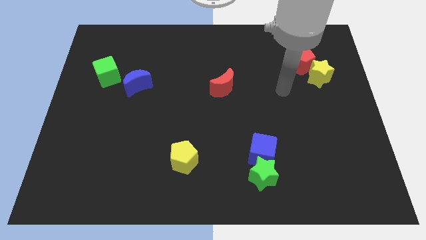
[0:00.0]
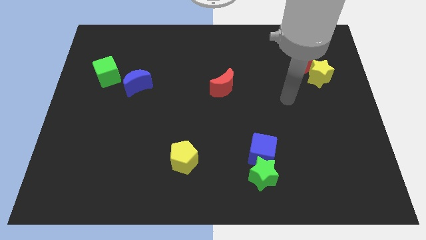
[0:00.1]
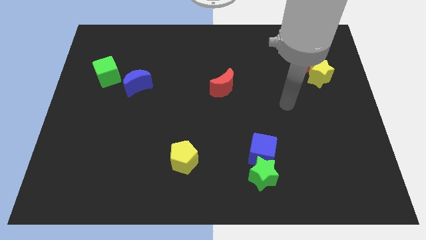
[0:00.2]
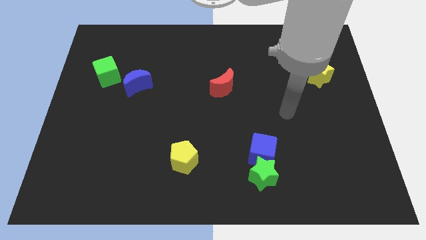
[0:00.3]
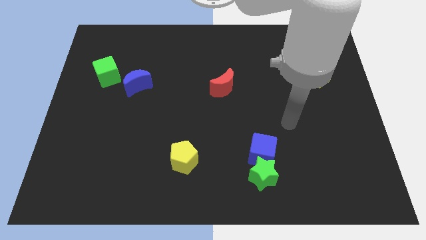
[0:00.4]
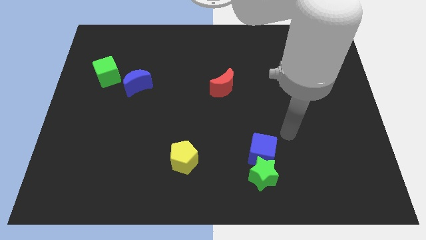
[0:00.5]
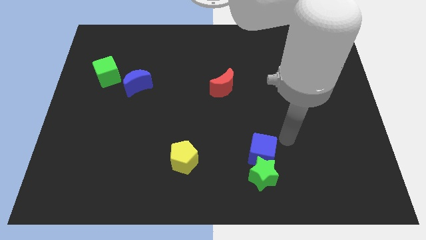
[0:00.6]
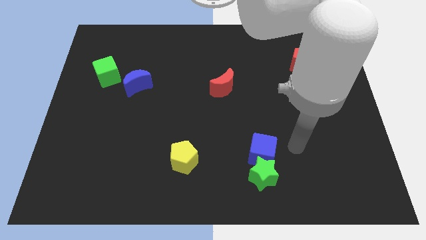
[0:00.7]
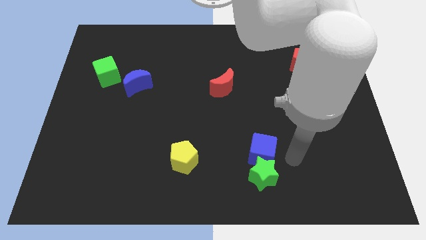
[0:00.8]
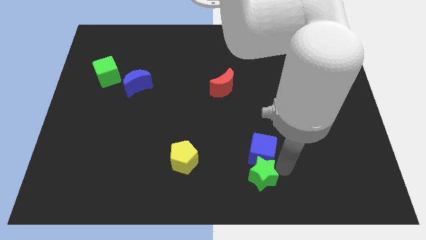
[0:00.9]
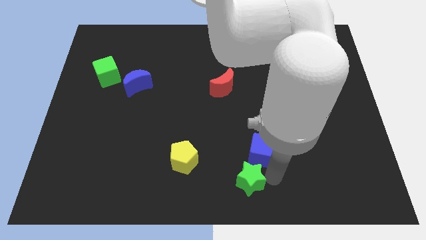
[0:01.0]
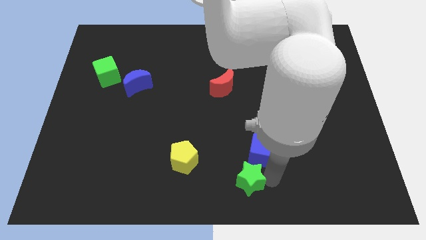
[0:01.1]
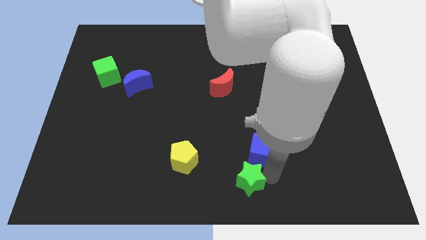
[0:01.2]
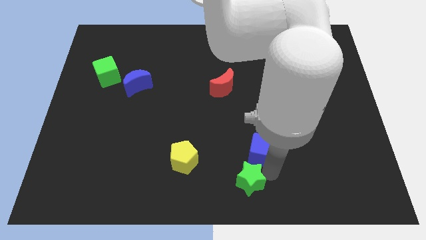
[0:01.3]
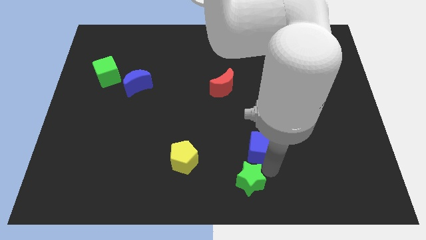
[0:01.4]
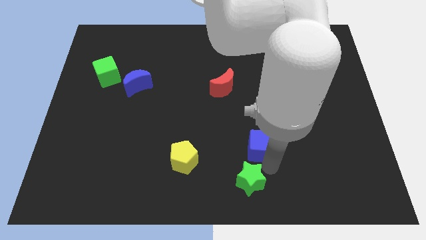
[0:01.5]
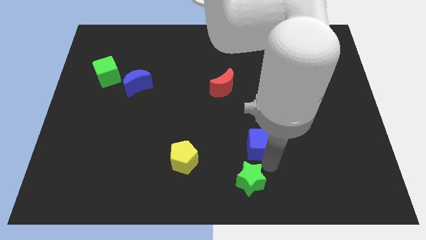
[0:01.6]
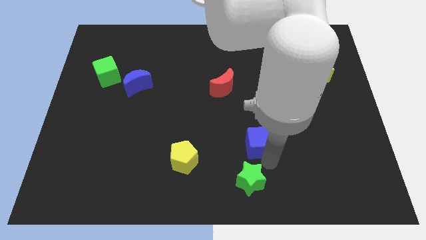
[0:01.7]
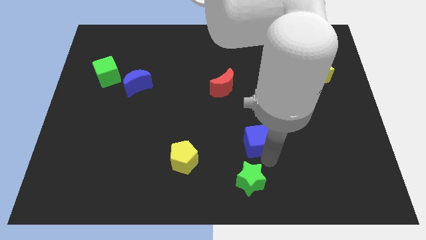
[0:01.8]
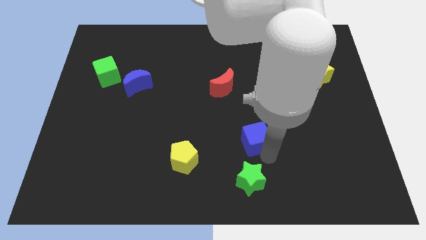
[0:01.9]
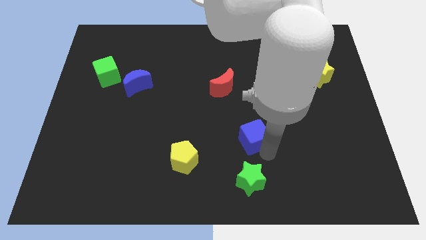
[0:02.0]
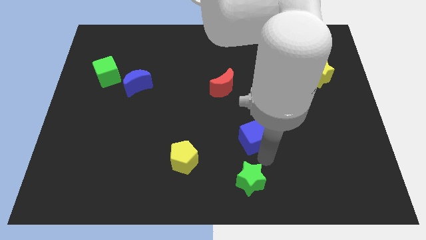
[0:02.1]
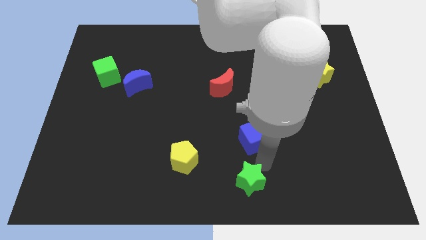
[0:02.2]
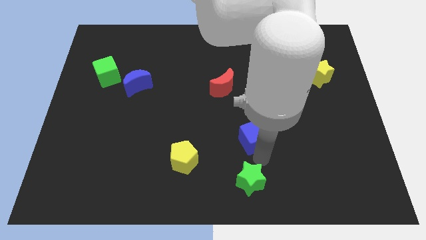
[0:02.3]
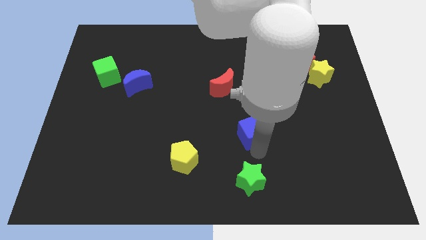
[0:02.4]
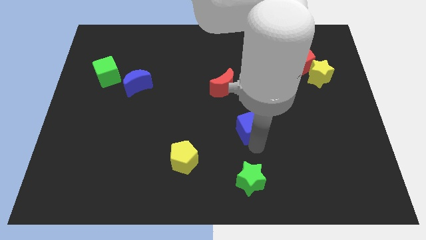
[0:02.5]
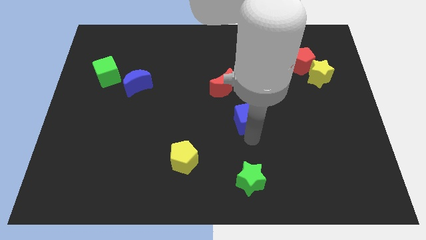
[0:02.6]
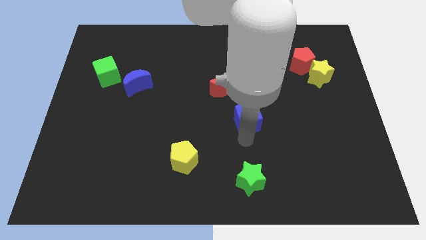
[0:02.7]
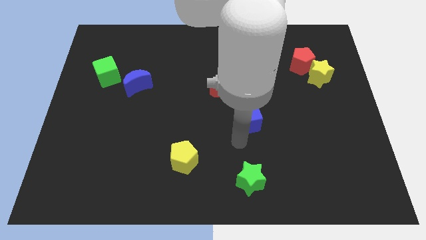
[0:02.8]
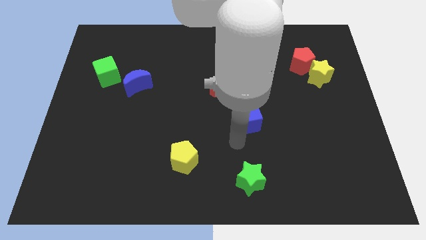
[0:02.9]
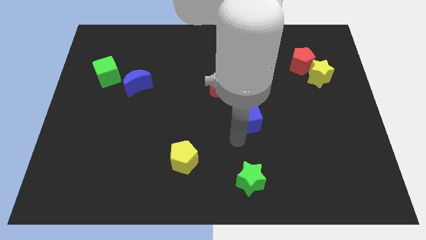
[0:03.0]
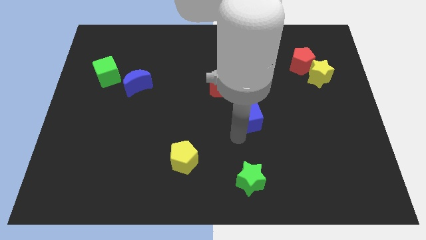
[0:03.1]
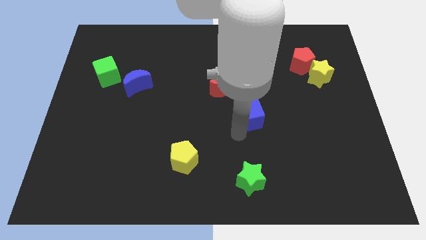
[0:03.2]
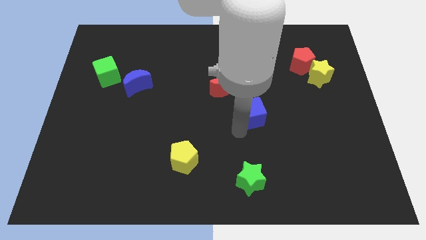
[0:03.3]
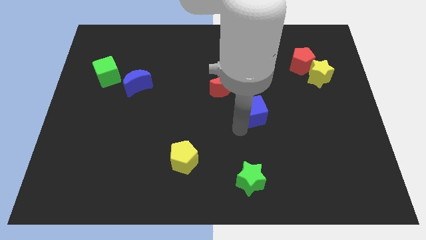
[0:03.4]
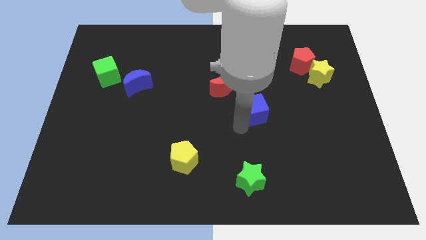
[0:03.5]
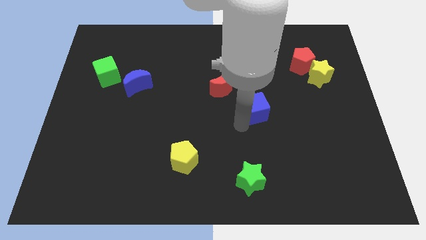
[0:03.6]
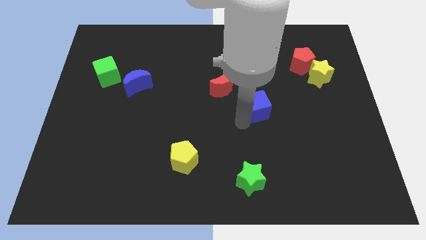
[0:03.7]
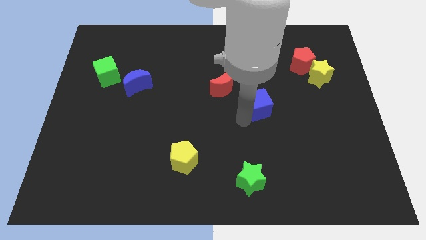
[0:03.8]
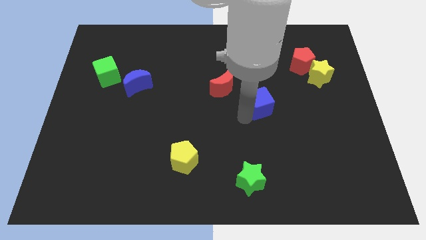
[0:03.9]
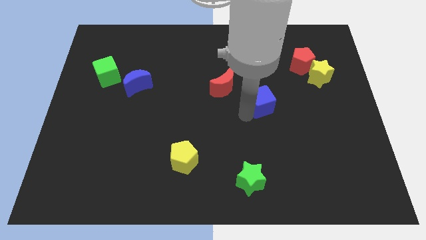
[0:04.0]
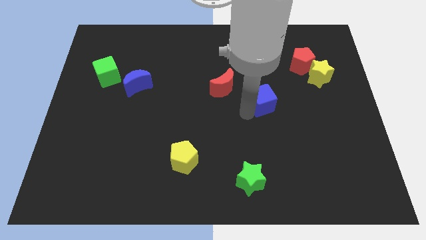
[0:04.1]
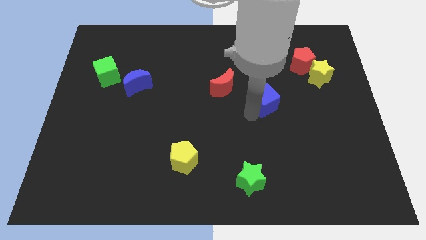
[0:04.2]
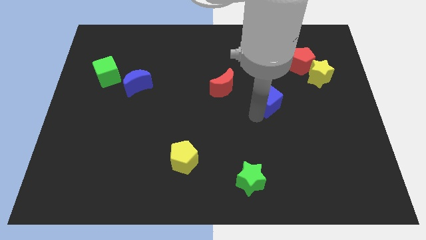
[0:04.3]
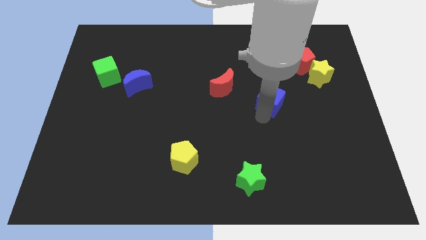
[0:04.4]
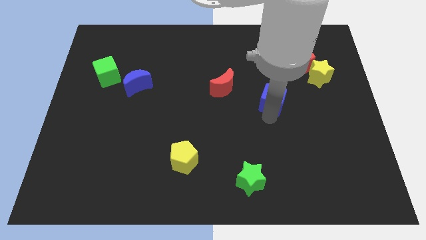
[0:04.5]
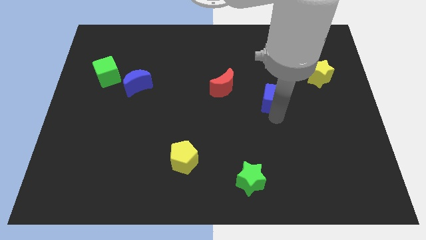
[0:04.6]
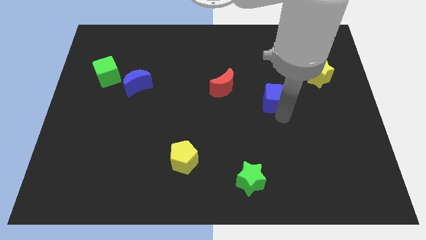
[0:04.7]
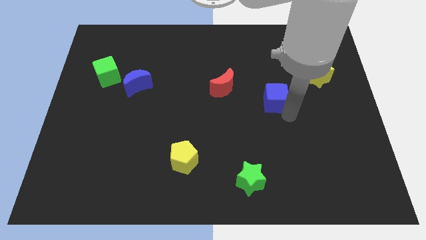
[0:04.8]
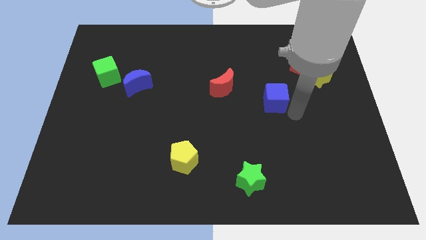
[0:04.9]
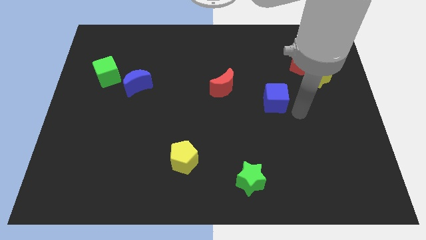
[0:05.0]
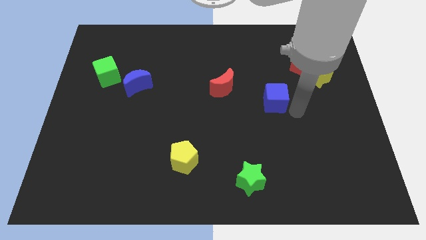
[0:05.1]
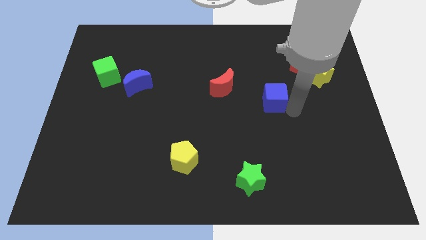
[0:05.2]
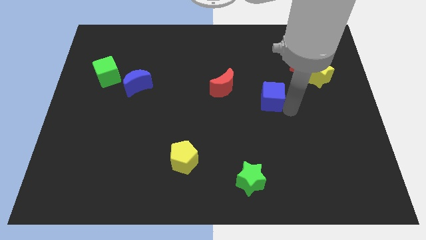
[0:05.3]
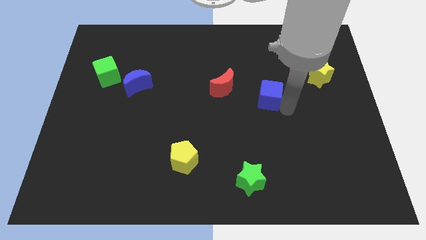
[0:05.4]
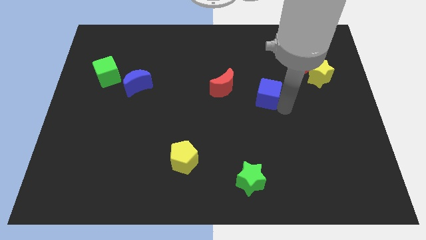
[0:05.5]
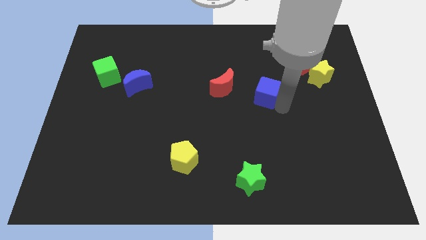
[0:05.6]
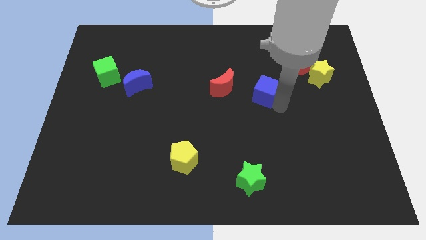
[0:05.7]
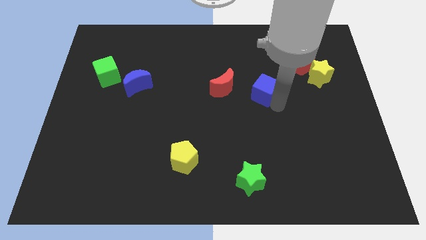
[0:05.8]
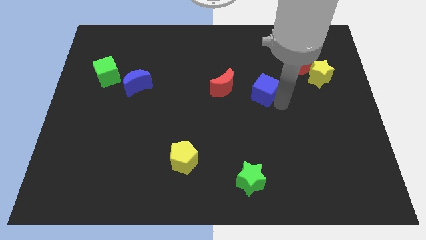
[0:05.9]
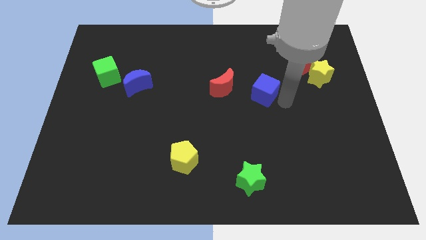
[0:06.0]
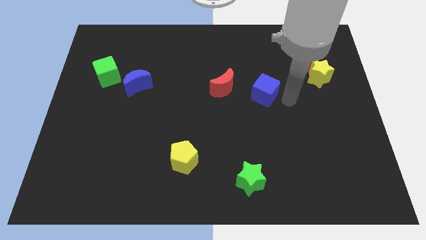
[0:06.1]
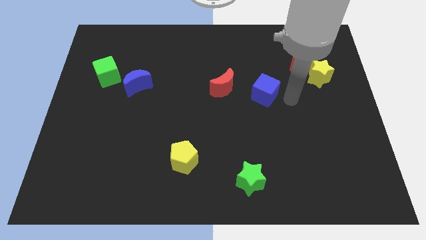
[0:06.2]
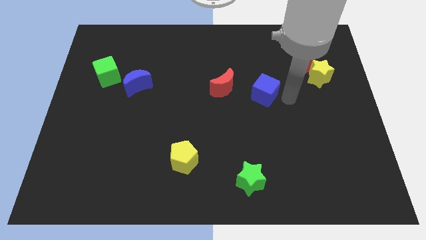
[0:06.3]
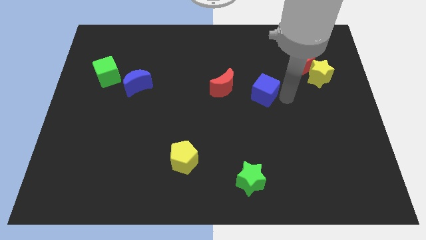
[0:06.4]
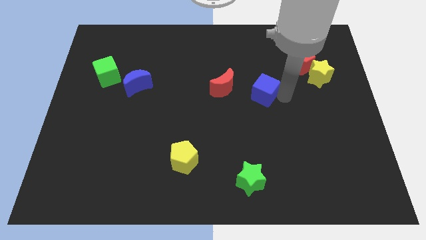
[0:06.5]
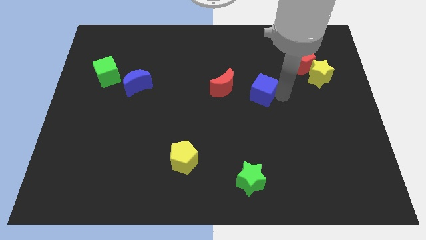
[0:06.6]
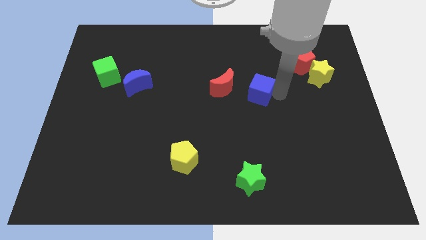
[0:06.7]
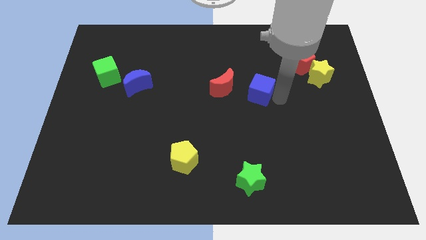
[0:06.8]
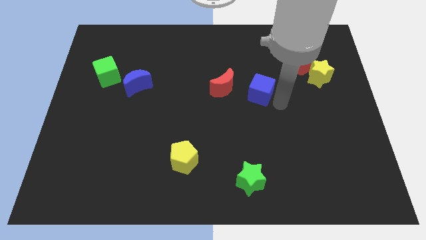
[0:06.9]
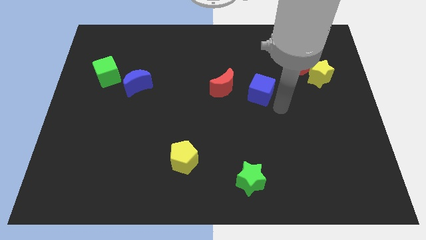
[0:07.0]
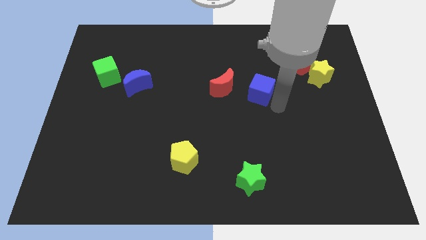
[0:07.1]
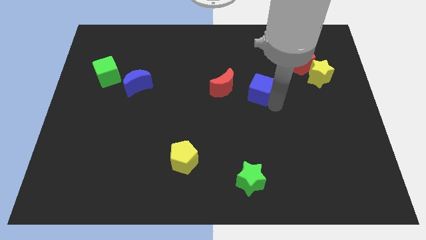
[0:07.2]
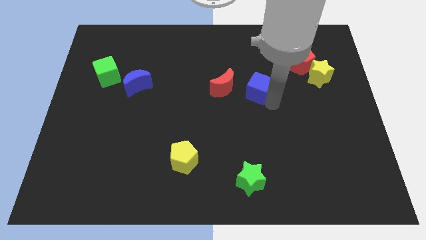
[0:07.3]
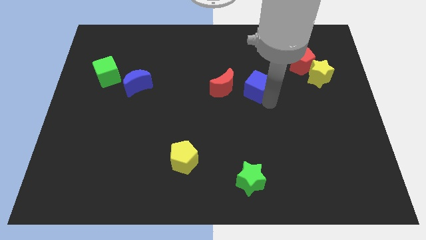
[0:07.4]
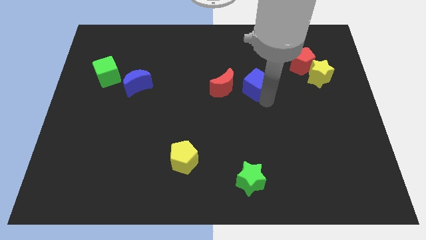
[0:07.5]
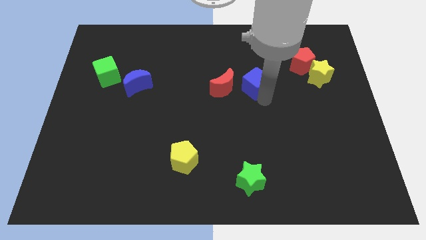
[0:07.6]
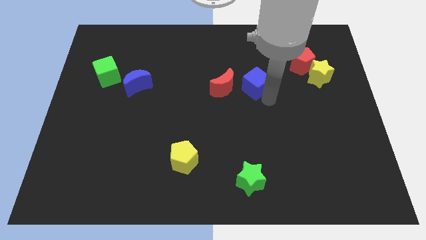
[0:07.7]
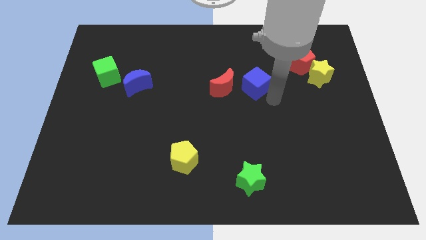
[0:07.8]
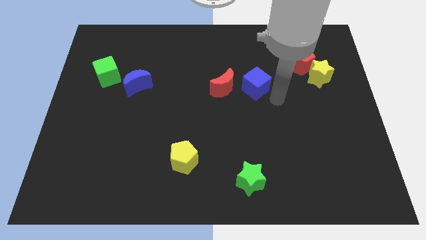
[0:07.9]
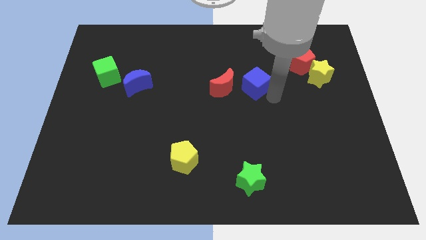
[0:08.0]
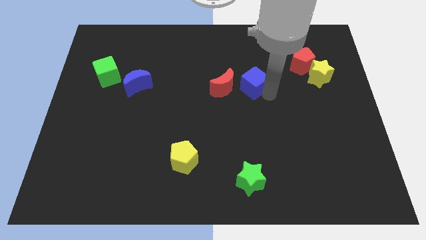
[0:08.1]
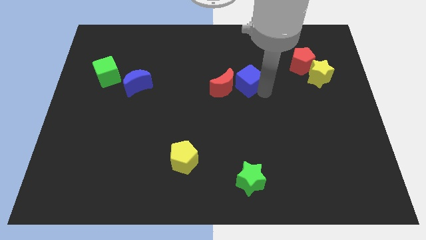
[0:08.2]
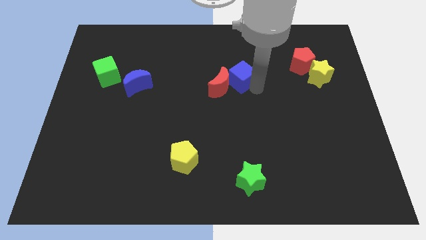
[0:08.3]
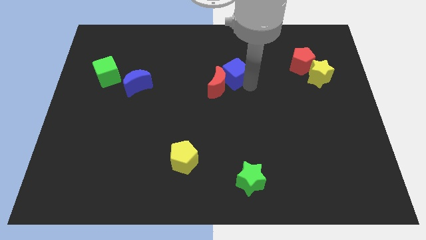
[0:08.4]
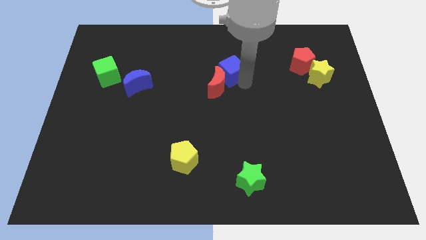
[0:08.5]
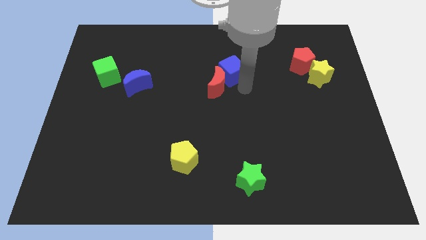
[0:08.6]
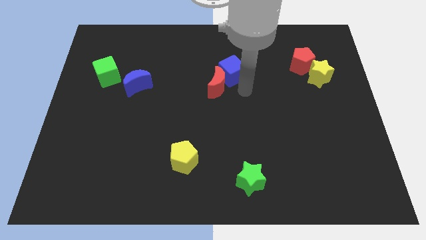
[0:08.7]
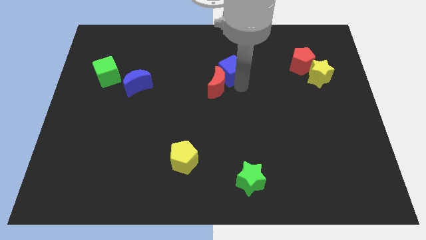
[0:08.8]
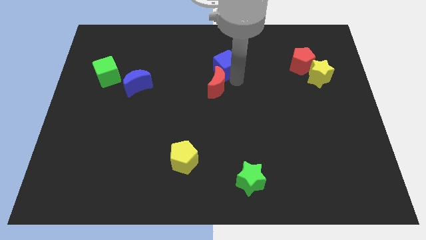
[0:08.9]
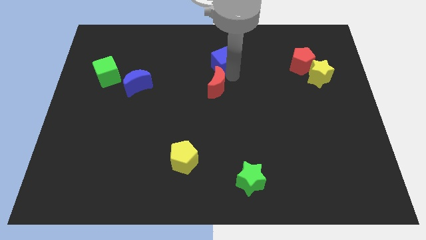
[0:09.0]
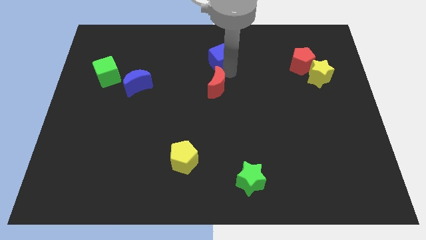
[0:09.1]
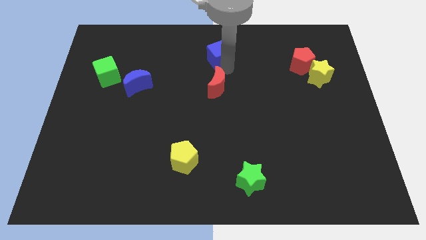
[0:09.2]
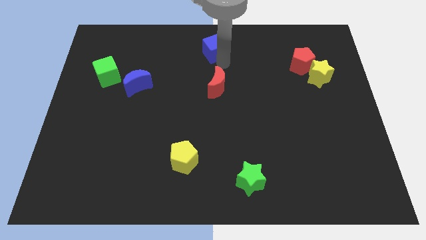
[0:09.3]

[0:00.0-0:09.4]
slide the blue cube to the top side
